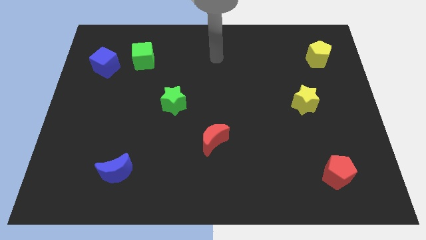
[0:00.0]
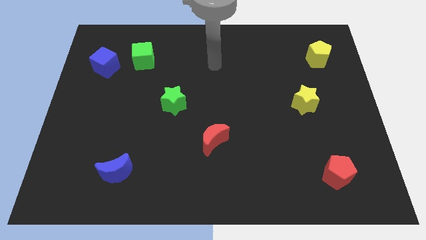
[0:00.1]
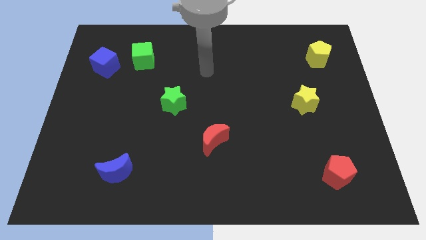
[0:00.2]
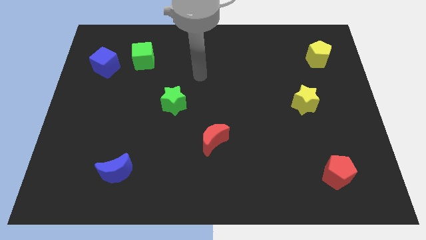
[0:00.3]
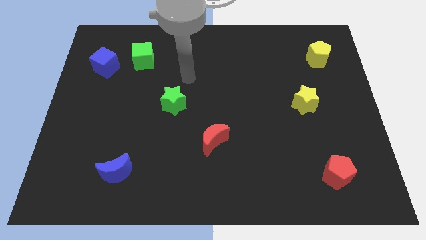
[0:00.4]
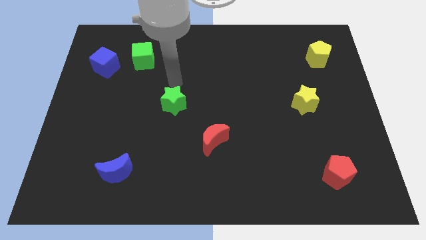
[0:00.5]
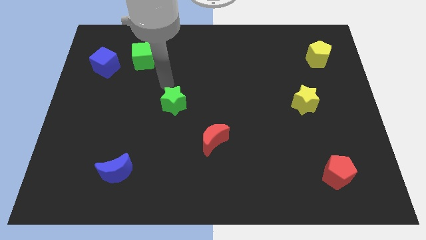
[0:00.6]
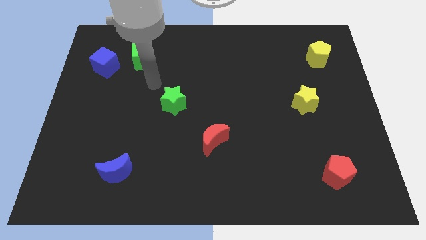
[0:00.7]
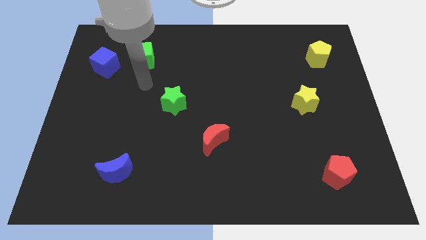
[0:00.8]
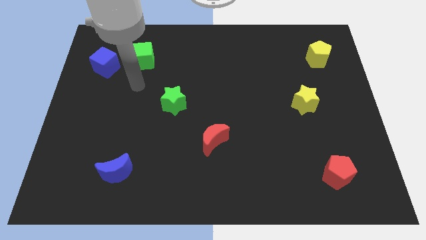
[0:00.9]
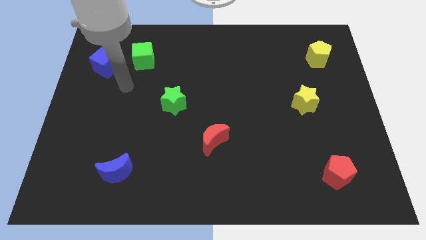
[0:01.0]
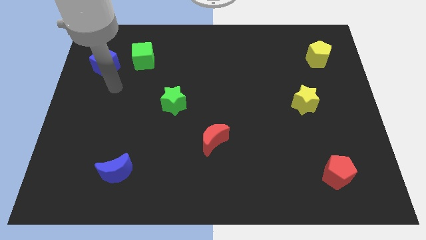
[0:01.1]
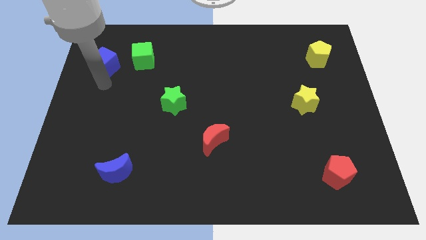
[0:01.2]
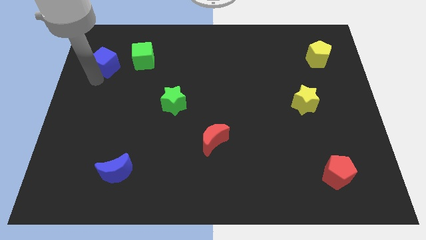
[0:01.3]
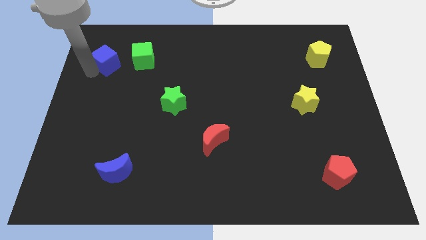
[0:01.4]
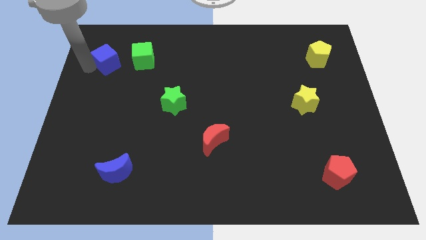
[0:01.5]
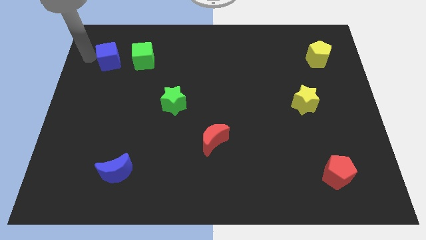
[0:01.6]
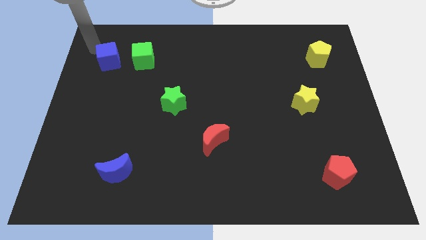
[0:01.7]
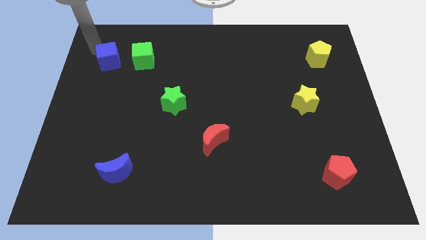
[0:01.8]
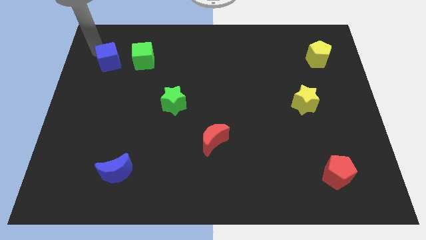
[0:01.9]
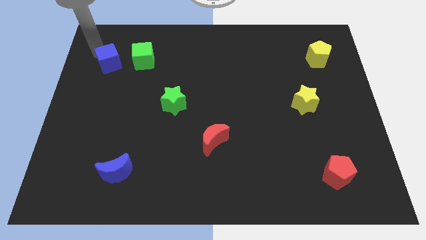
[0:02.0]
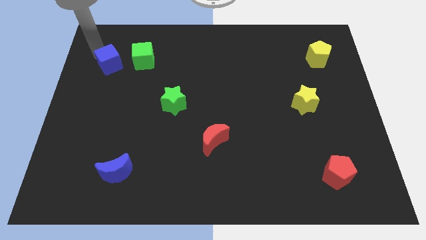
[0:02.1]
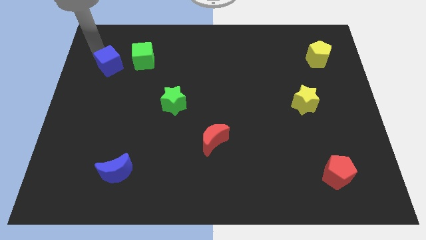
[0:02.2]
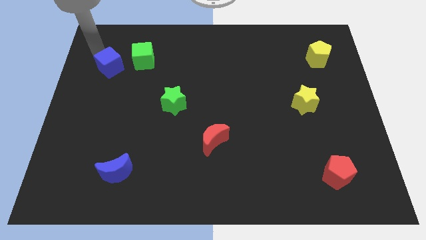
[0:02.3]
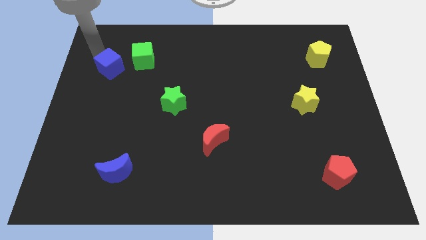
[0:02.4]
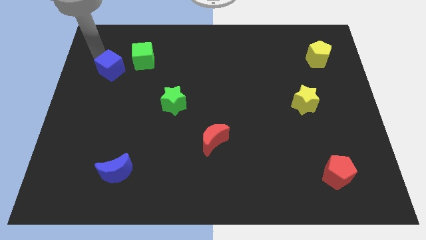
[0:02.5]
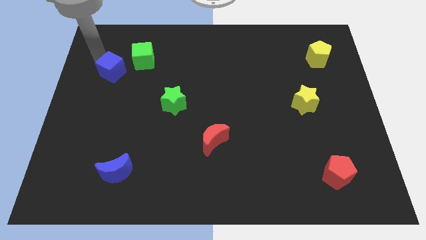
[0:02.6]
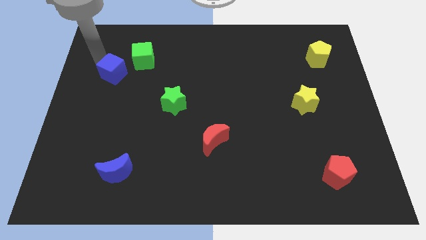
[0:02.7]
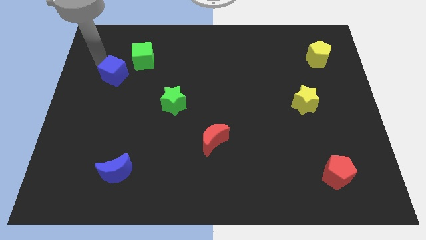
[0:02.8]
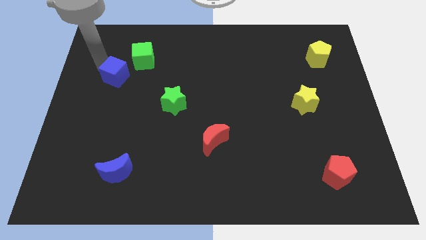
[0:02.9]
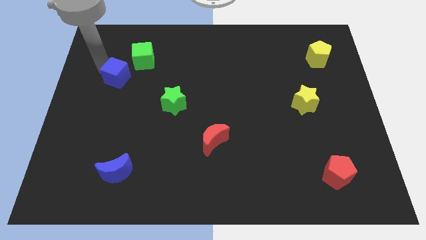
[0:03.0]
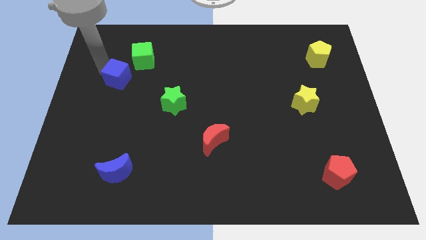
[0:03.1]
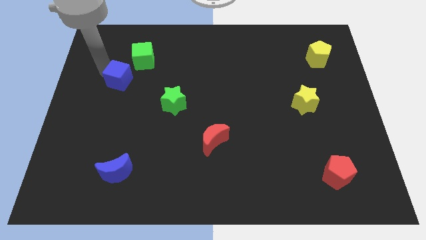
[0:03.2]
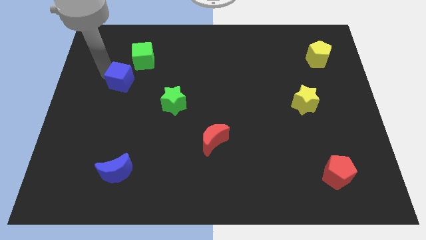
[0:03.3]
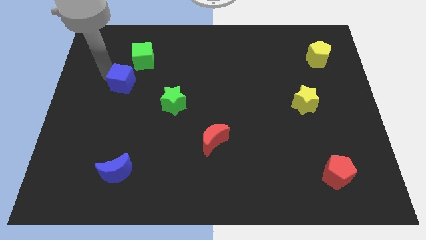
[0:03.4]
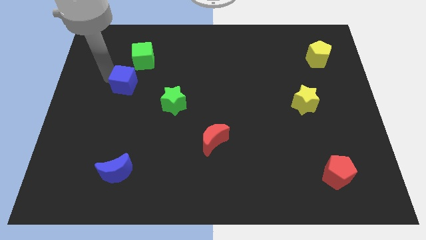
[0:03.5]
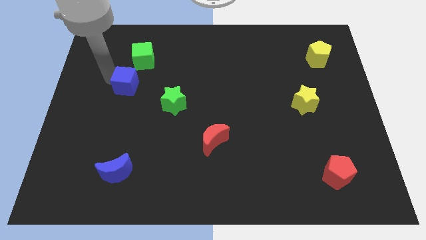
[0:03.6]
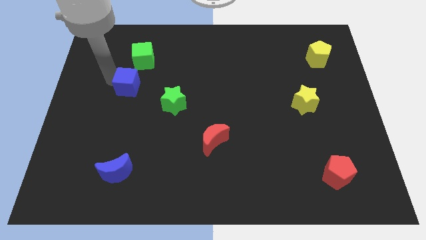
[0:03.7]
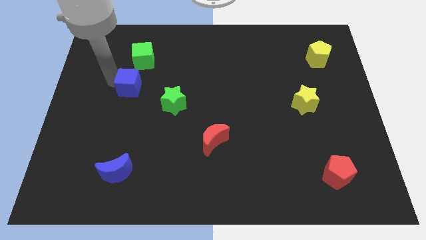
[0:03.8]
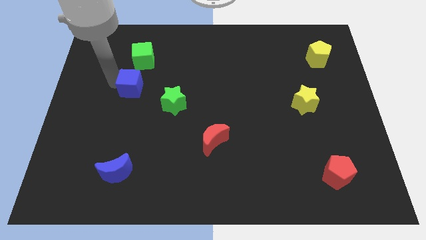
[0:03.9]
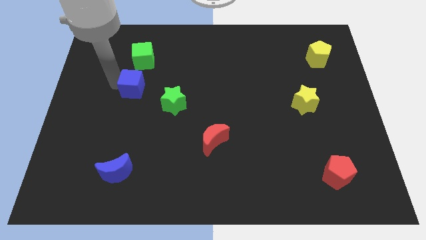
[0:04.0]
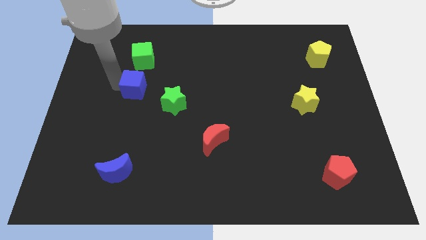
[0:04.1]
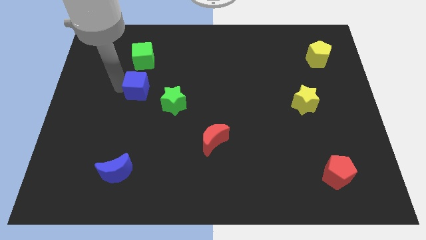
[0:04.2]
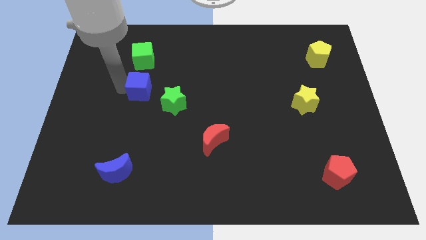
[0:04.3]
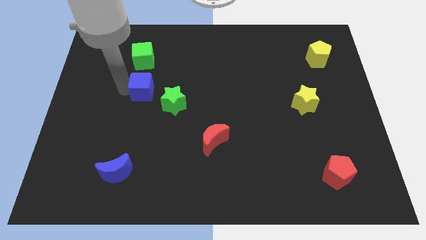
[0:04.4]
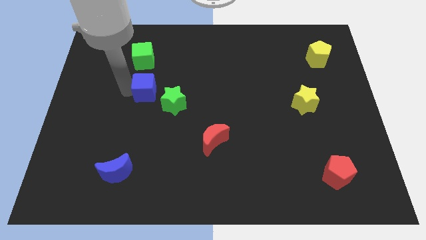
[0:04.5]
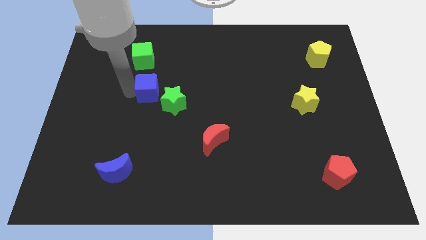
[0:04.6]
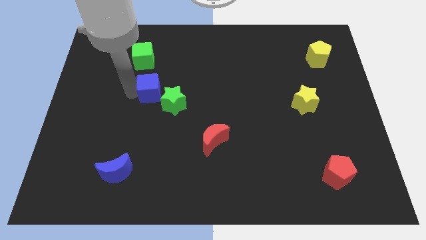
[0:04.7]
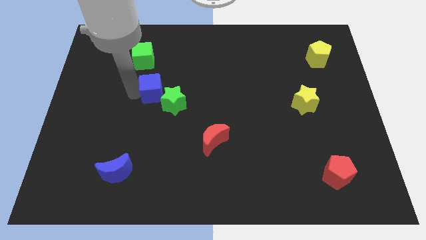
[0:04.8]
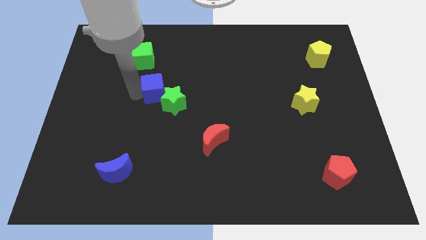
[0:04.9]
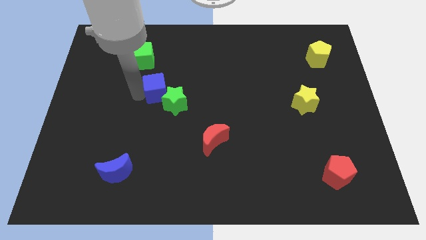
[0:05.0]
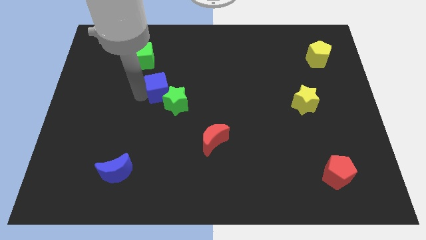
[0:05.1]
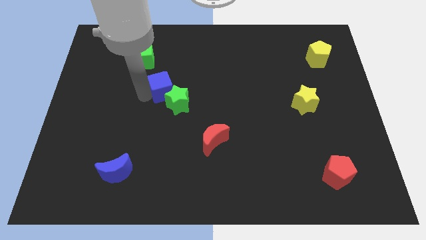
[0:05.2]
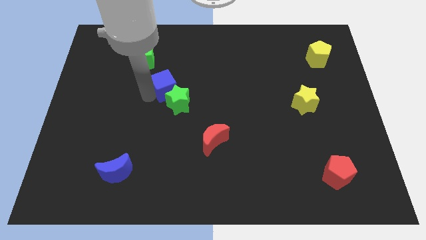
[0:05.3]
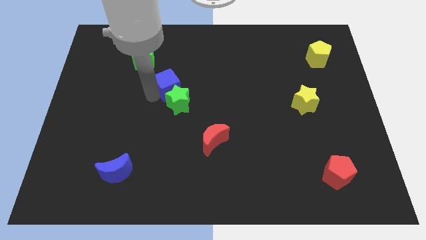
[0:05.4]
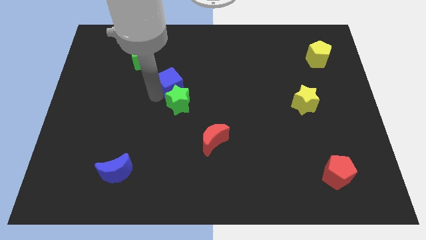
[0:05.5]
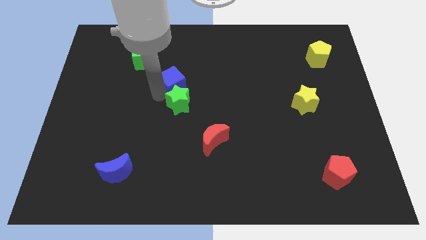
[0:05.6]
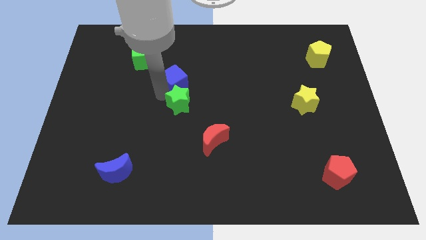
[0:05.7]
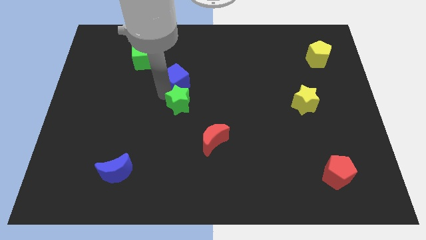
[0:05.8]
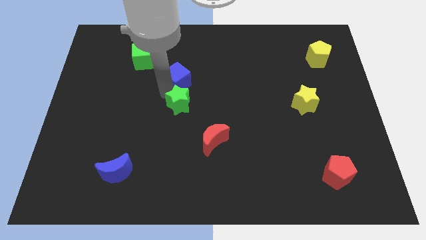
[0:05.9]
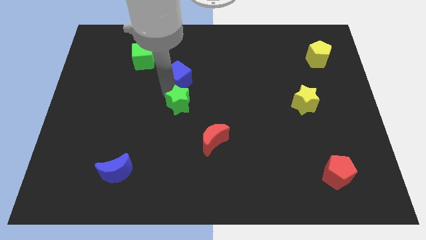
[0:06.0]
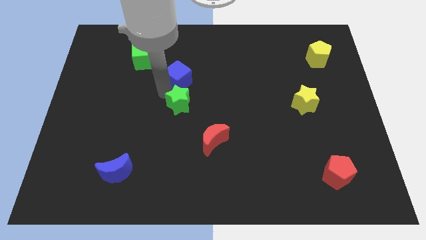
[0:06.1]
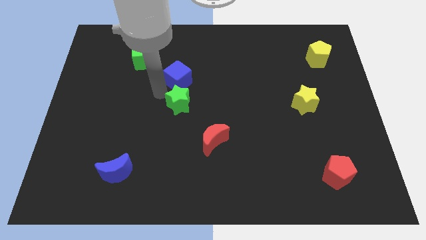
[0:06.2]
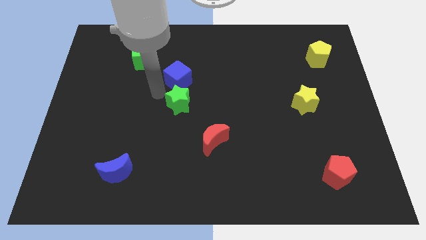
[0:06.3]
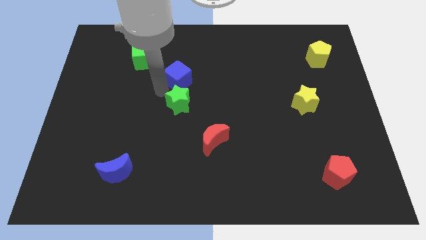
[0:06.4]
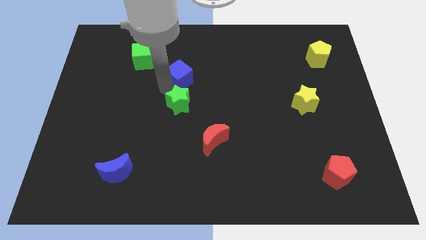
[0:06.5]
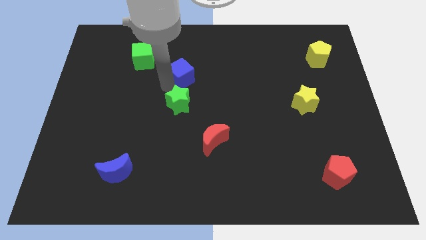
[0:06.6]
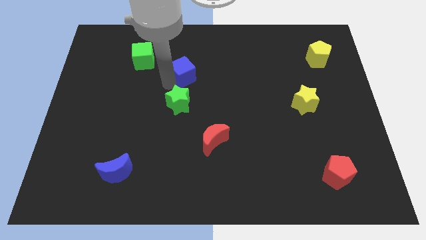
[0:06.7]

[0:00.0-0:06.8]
slide the blue cube to the right

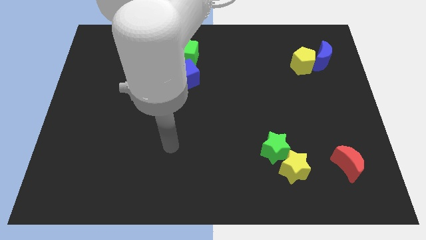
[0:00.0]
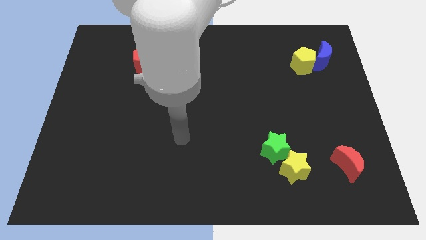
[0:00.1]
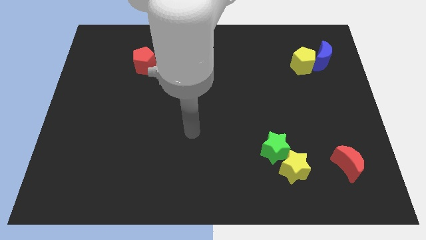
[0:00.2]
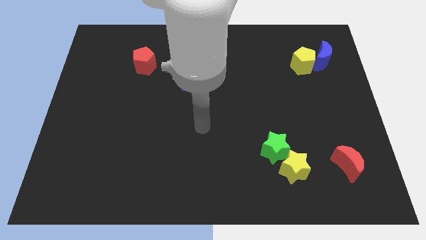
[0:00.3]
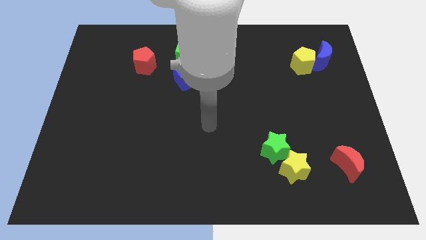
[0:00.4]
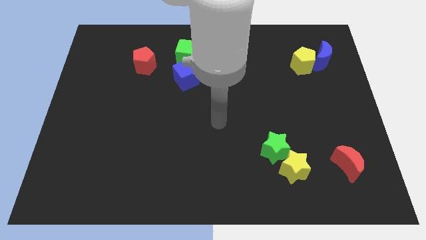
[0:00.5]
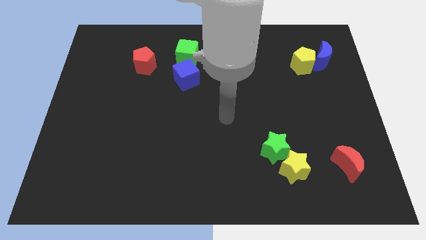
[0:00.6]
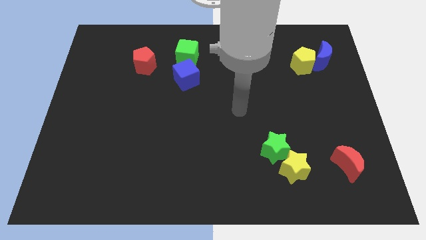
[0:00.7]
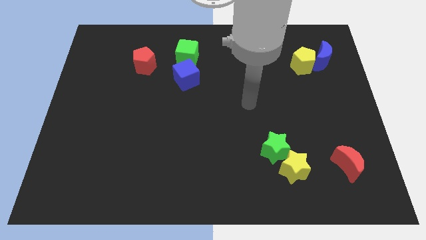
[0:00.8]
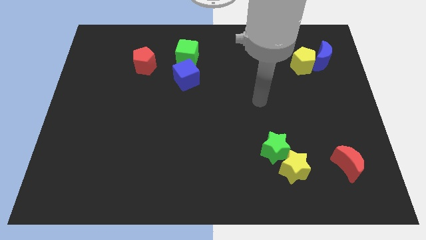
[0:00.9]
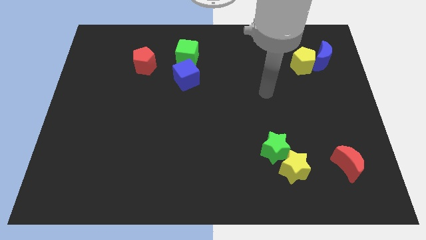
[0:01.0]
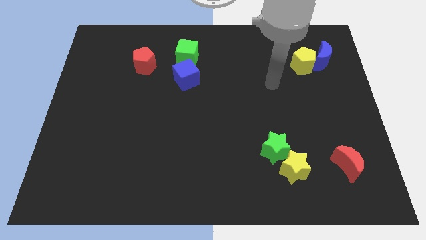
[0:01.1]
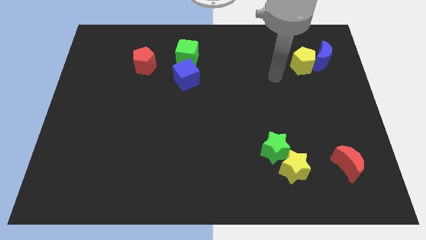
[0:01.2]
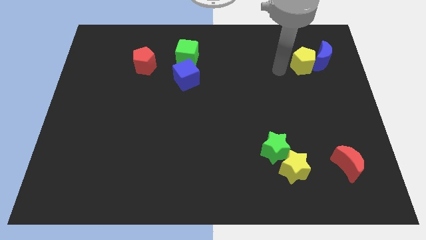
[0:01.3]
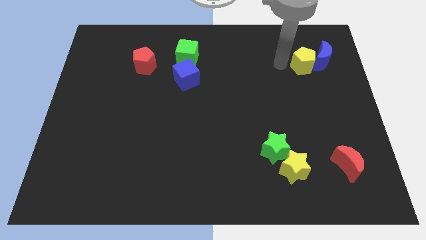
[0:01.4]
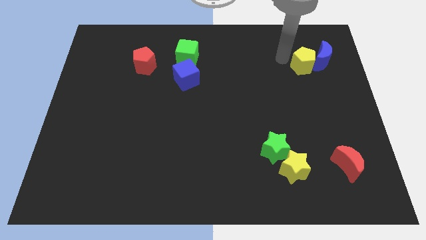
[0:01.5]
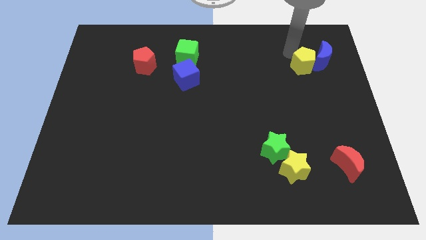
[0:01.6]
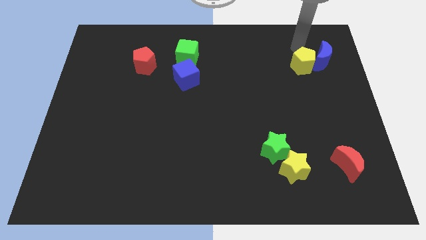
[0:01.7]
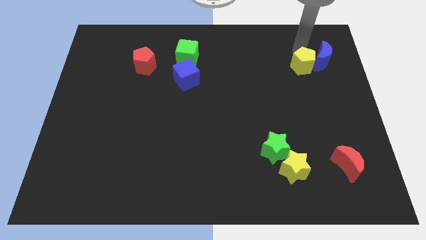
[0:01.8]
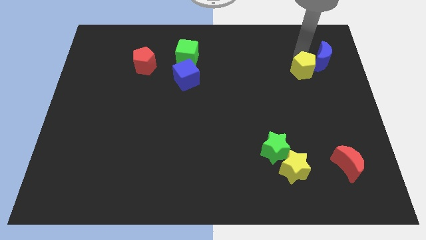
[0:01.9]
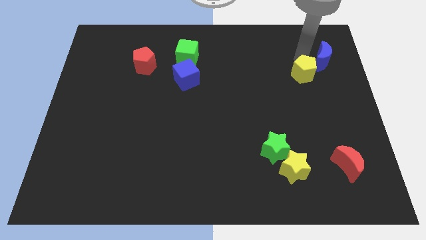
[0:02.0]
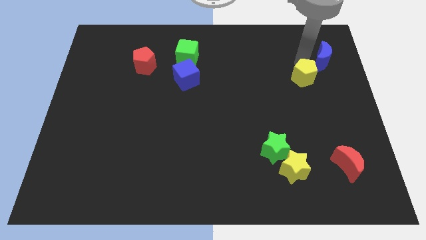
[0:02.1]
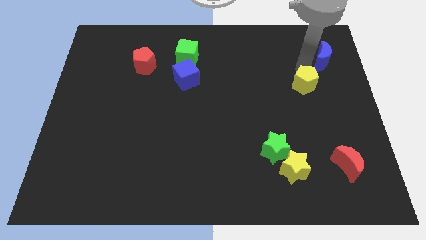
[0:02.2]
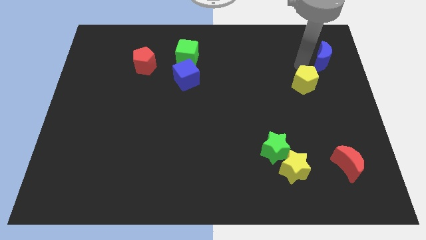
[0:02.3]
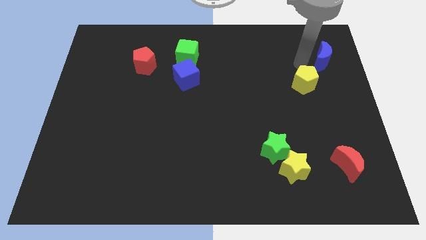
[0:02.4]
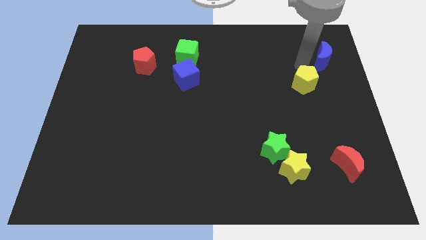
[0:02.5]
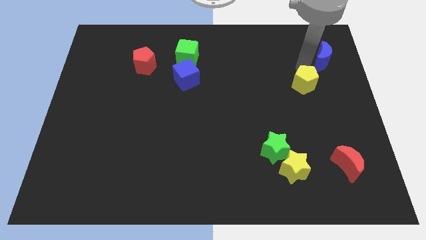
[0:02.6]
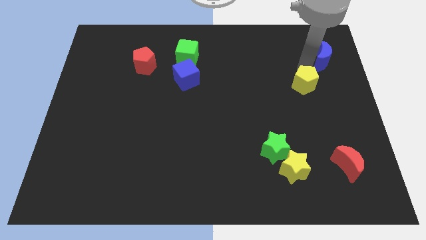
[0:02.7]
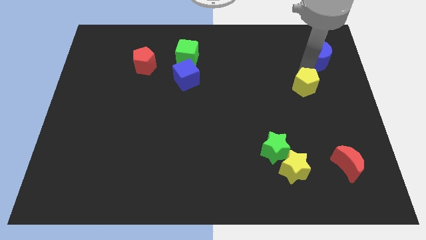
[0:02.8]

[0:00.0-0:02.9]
slightly move the yellow pentagon downwards
